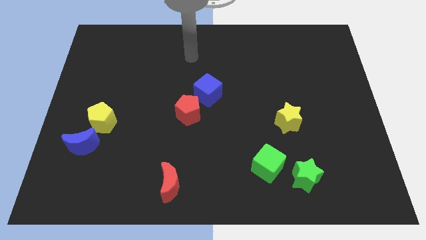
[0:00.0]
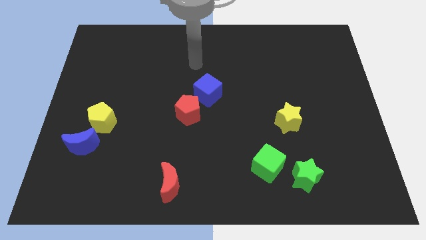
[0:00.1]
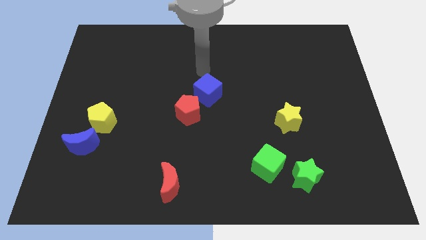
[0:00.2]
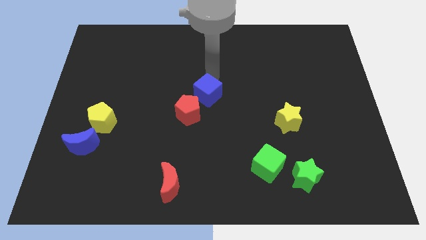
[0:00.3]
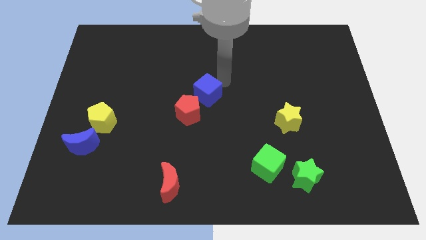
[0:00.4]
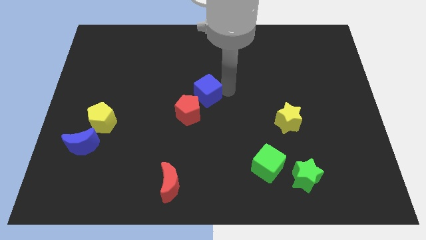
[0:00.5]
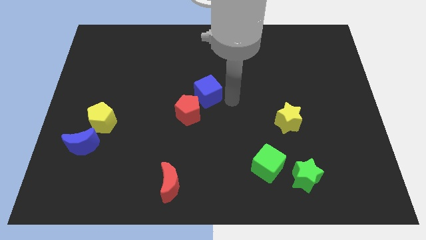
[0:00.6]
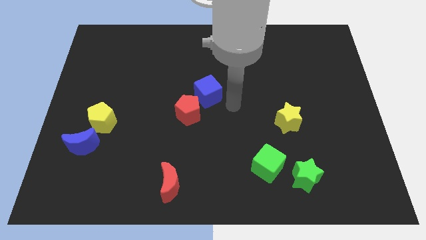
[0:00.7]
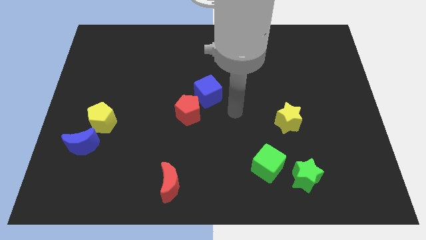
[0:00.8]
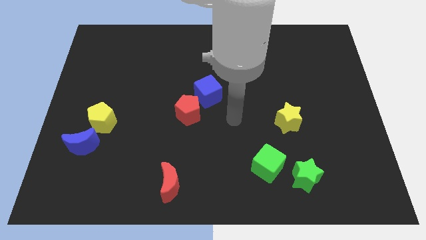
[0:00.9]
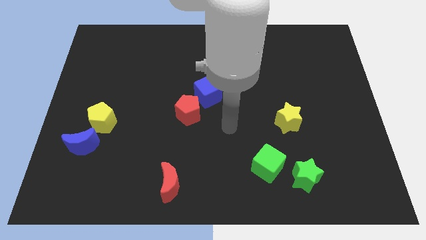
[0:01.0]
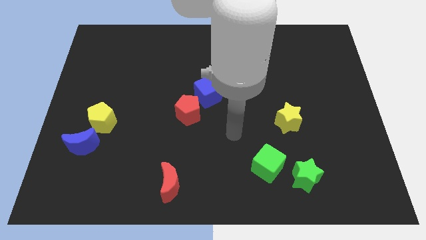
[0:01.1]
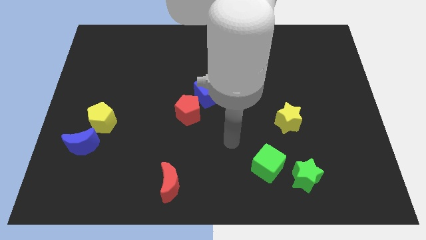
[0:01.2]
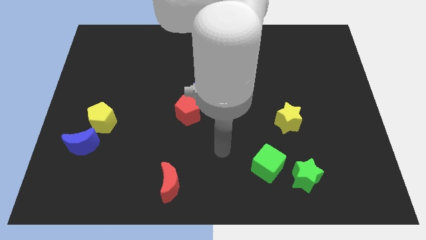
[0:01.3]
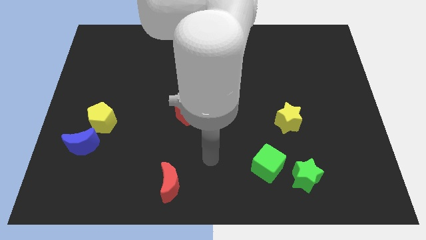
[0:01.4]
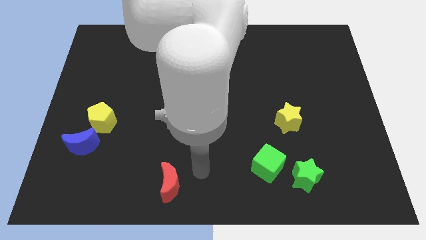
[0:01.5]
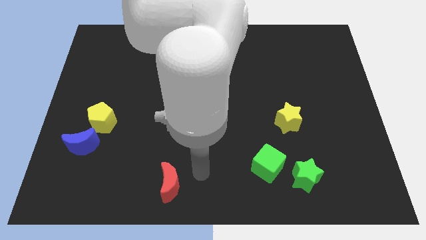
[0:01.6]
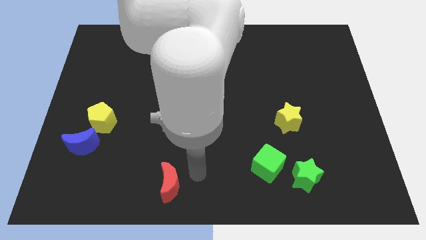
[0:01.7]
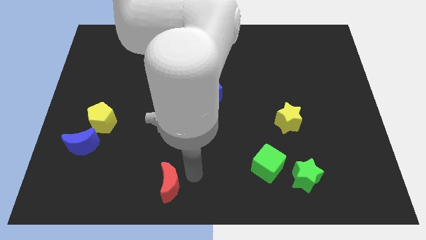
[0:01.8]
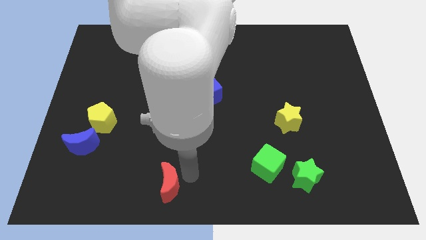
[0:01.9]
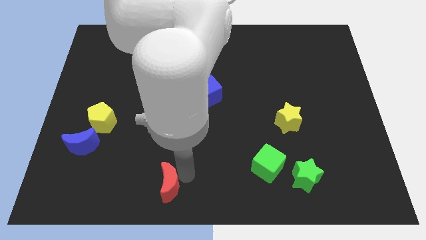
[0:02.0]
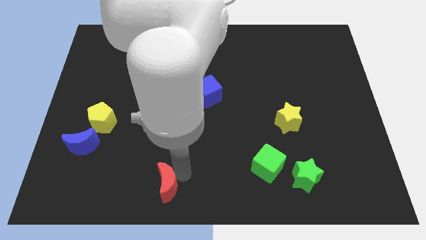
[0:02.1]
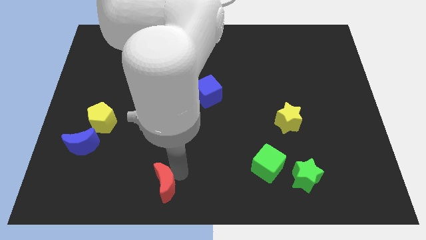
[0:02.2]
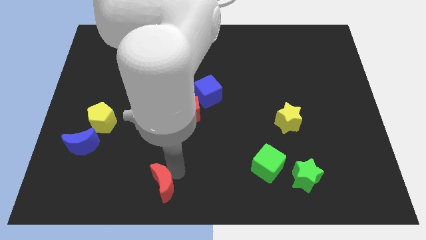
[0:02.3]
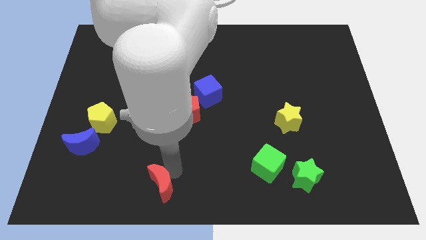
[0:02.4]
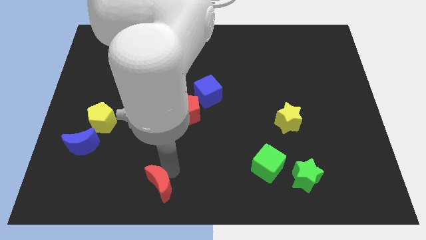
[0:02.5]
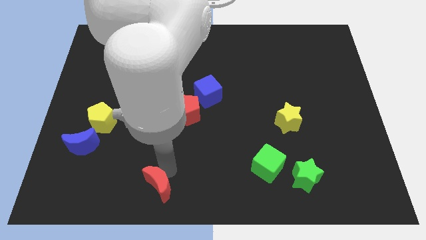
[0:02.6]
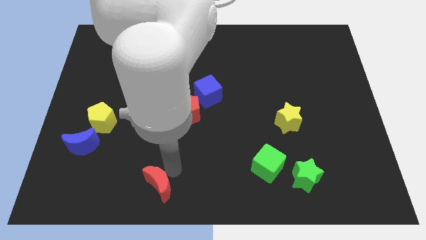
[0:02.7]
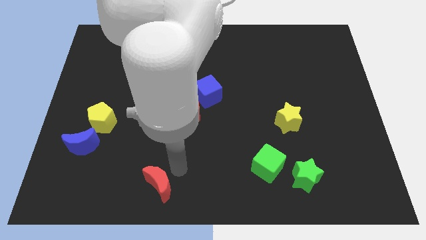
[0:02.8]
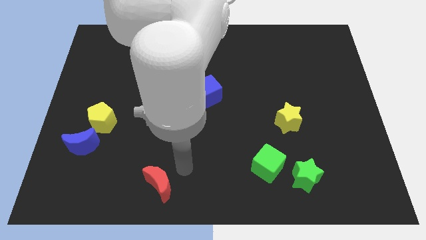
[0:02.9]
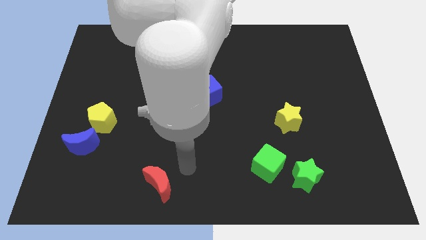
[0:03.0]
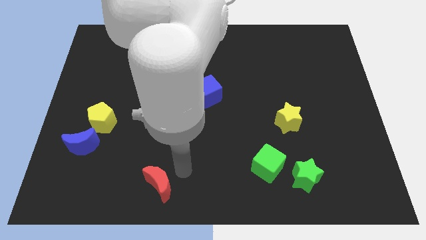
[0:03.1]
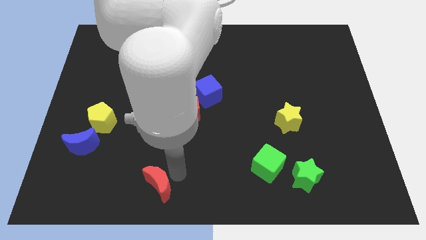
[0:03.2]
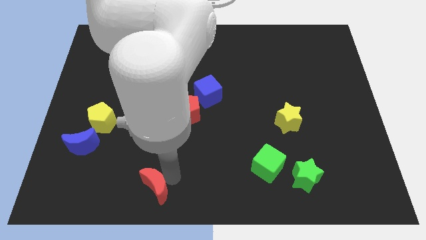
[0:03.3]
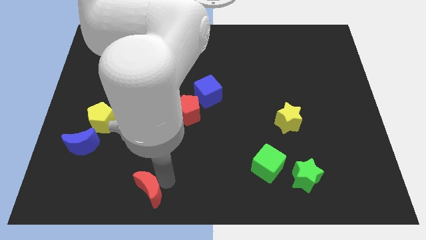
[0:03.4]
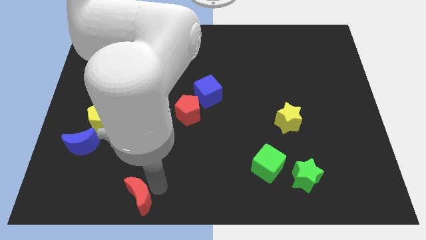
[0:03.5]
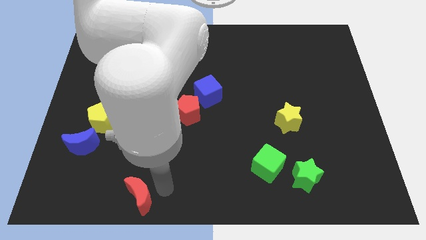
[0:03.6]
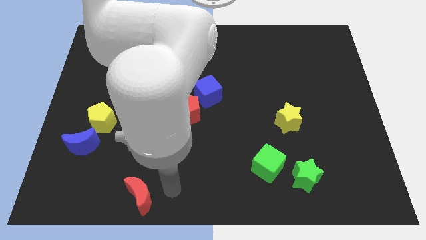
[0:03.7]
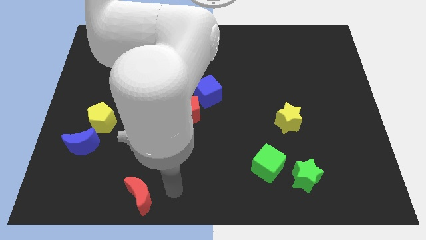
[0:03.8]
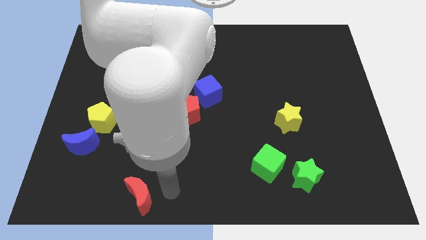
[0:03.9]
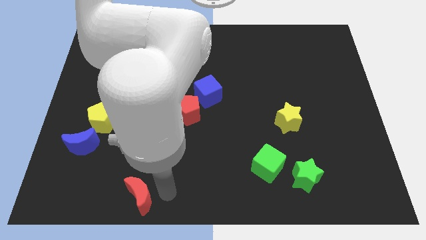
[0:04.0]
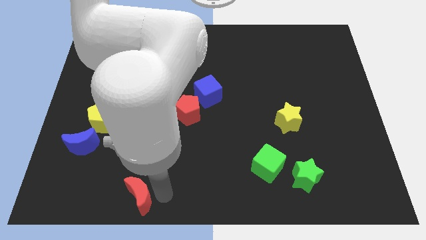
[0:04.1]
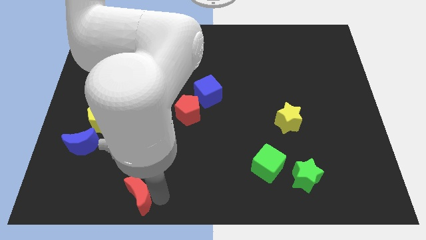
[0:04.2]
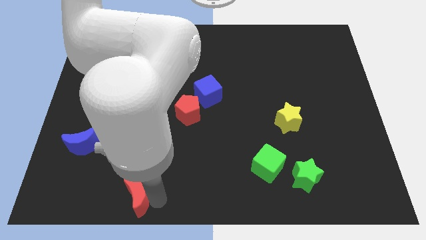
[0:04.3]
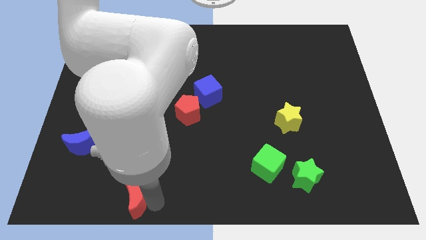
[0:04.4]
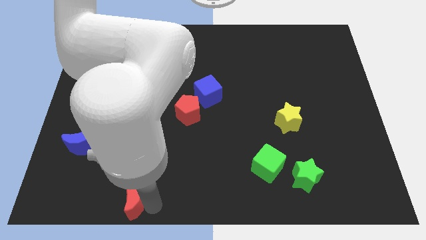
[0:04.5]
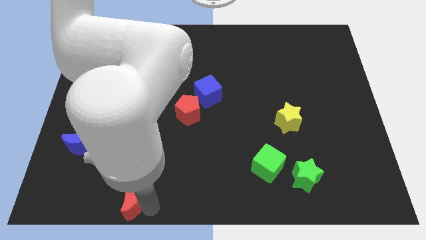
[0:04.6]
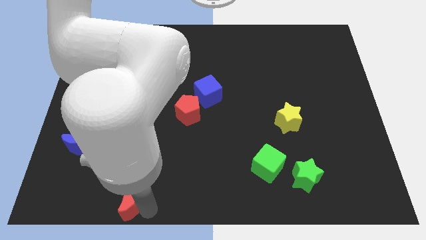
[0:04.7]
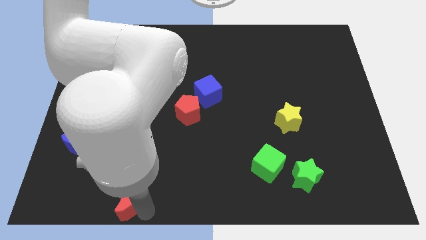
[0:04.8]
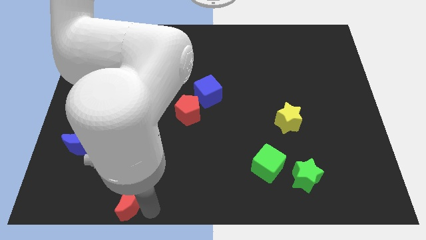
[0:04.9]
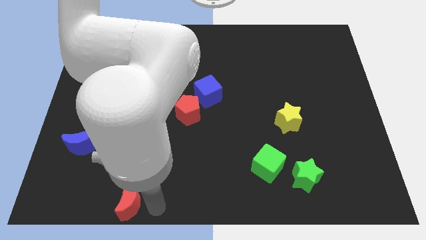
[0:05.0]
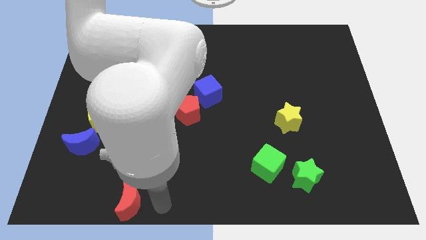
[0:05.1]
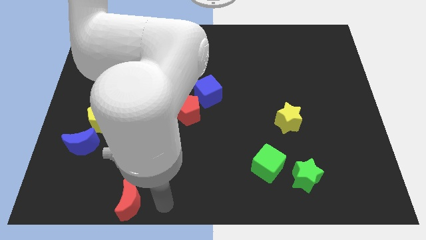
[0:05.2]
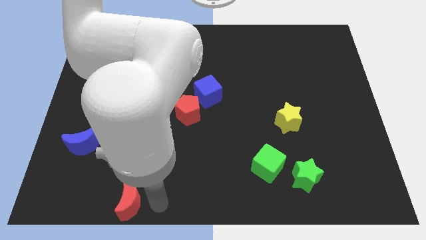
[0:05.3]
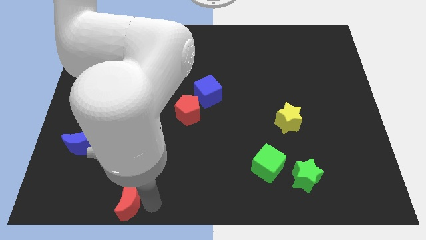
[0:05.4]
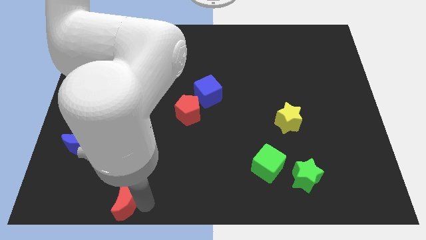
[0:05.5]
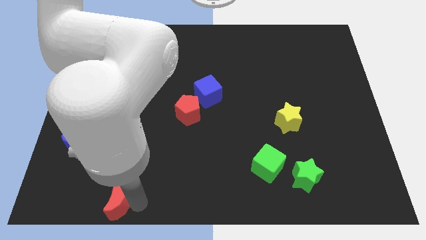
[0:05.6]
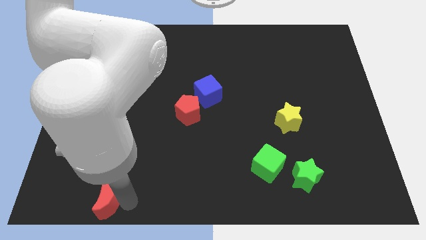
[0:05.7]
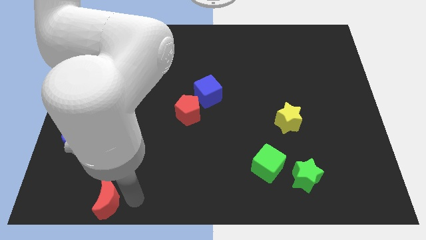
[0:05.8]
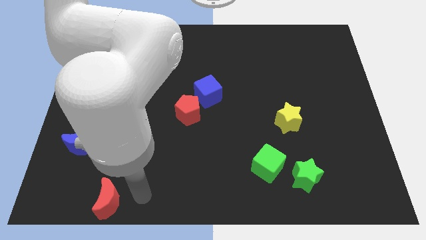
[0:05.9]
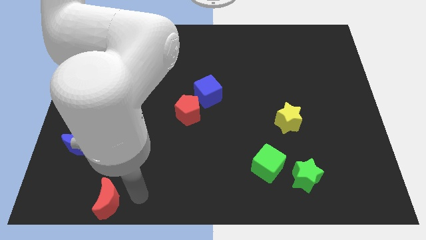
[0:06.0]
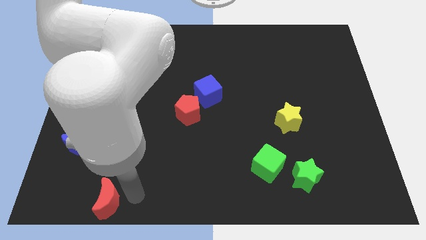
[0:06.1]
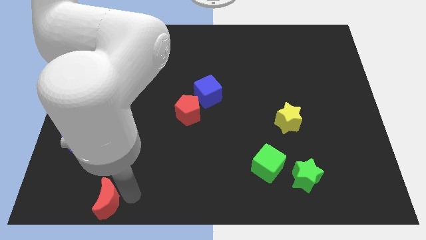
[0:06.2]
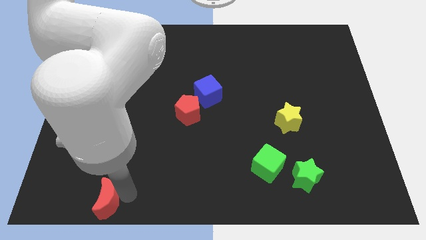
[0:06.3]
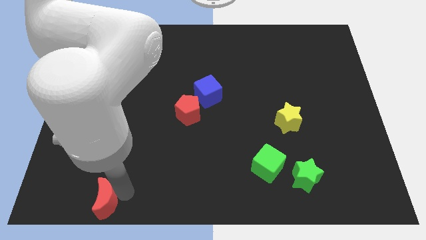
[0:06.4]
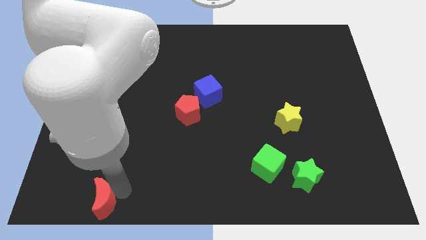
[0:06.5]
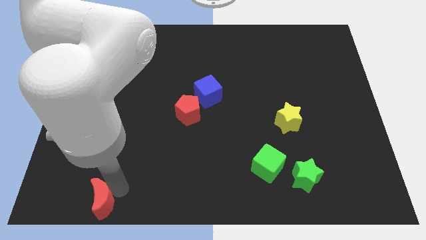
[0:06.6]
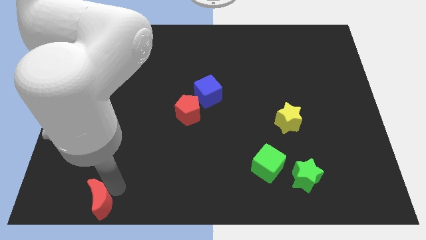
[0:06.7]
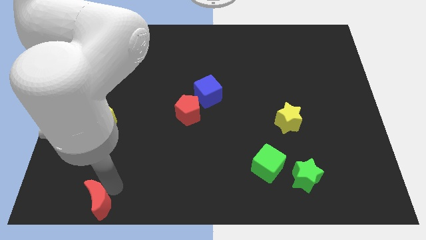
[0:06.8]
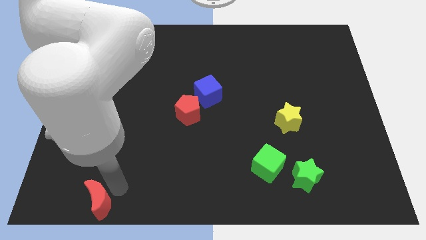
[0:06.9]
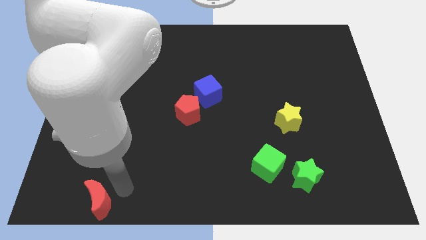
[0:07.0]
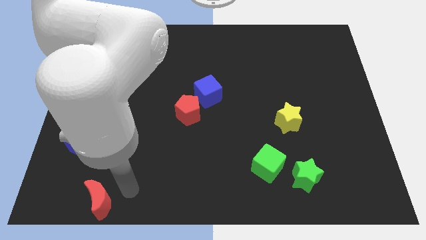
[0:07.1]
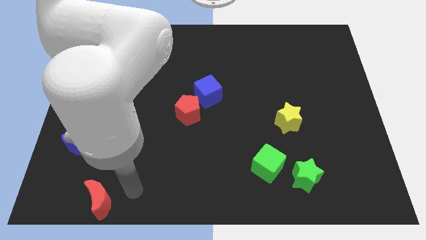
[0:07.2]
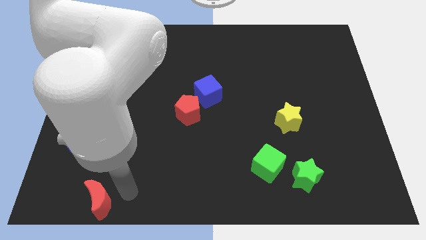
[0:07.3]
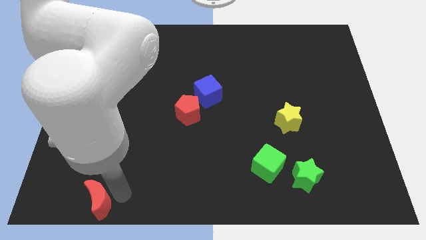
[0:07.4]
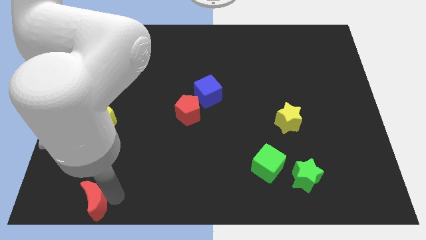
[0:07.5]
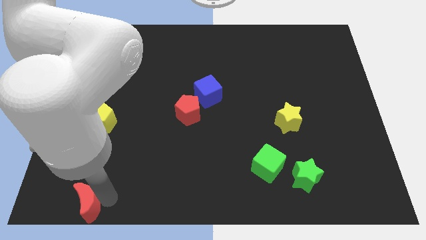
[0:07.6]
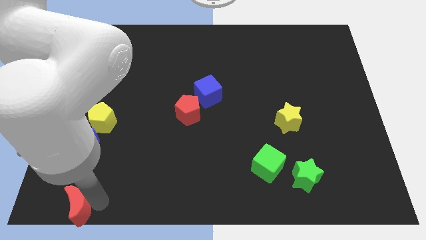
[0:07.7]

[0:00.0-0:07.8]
slide the red moon to the bottom left of the board
